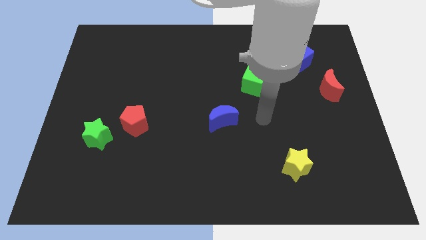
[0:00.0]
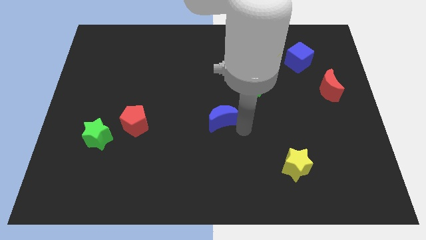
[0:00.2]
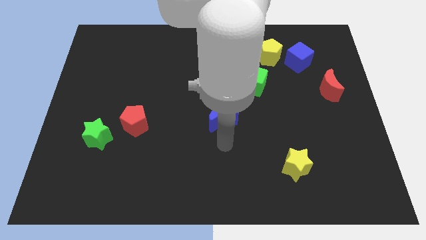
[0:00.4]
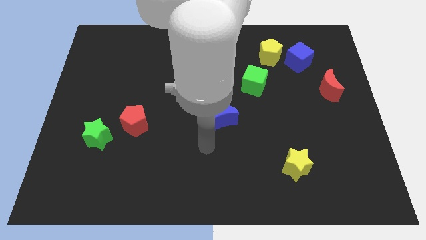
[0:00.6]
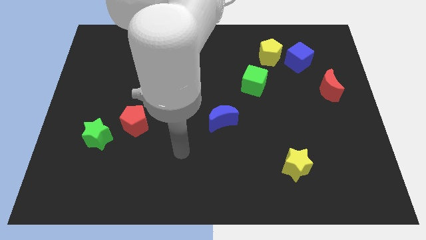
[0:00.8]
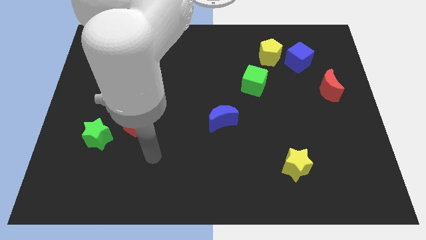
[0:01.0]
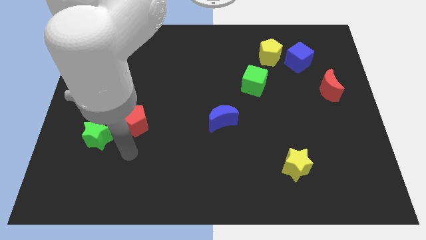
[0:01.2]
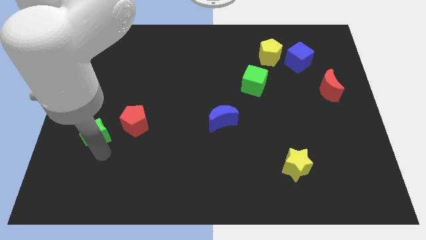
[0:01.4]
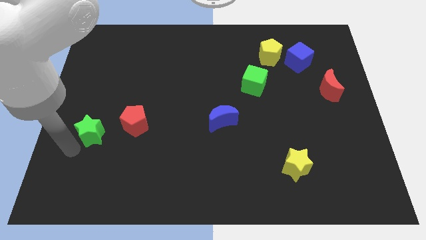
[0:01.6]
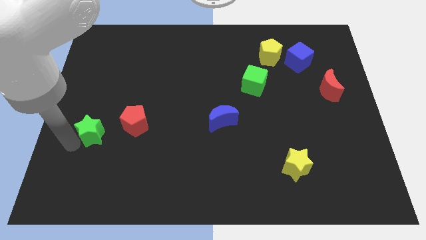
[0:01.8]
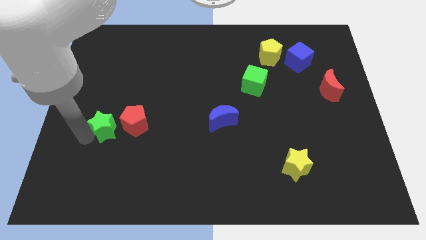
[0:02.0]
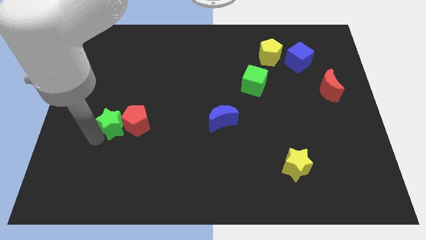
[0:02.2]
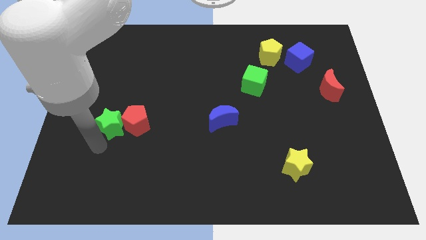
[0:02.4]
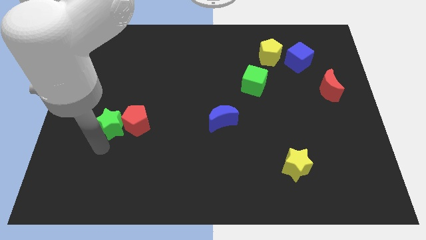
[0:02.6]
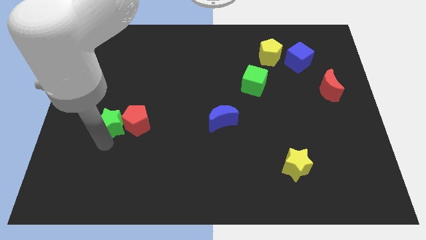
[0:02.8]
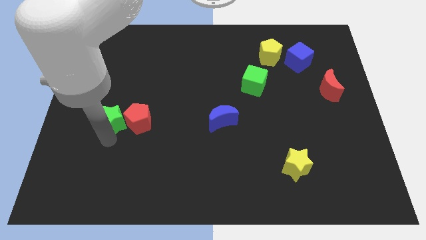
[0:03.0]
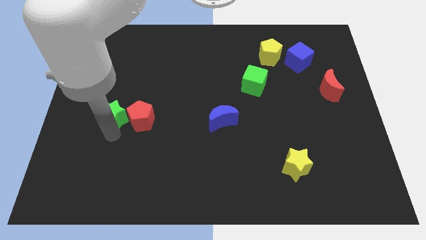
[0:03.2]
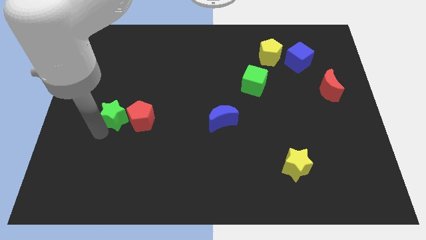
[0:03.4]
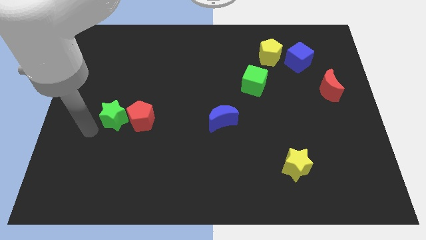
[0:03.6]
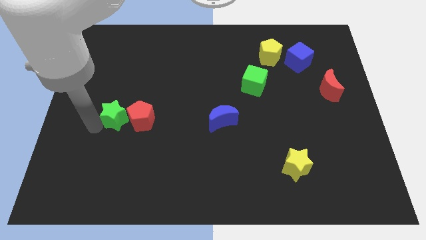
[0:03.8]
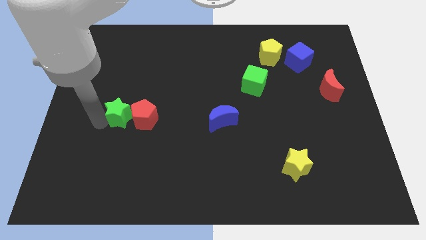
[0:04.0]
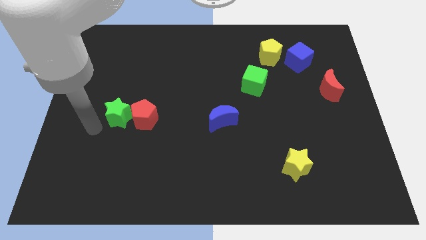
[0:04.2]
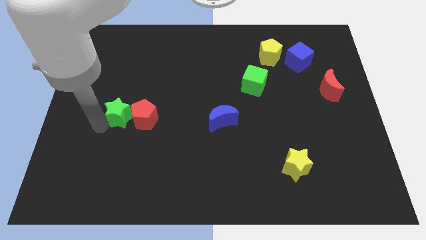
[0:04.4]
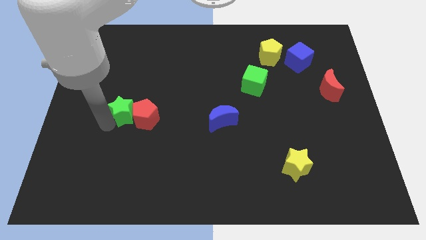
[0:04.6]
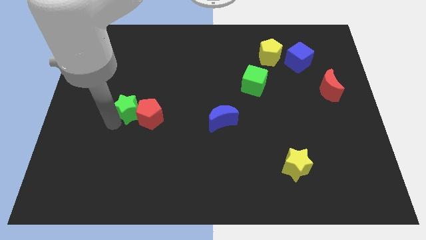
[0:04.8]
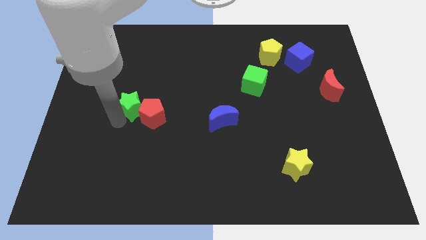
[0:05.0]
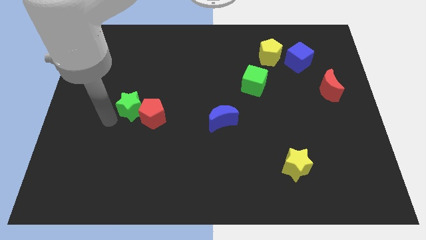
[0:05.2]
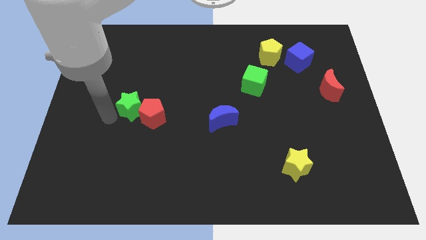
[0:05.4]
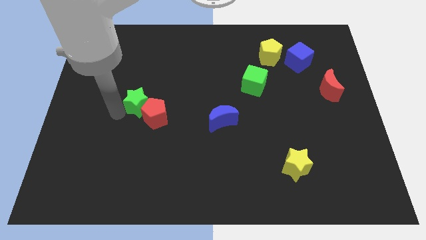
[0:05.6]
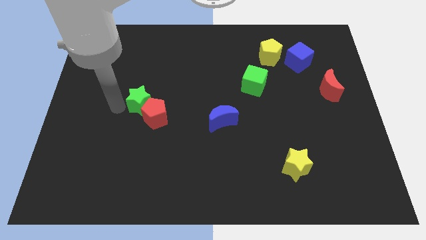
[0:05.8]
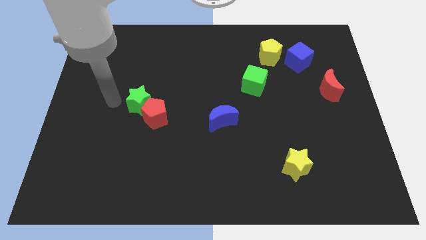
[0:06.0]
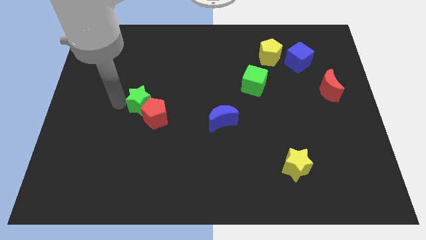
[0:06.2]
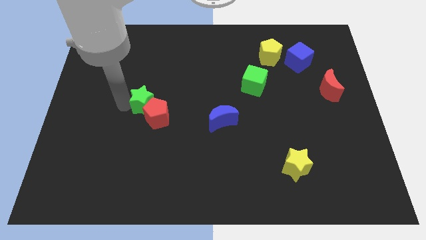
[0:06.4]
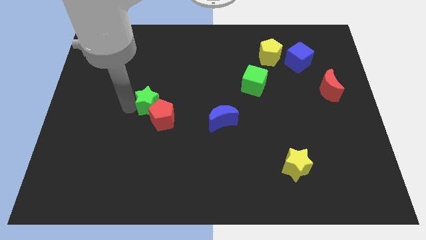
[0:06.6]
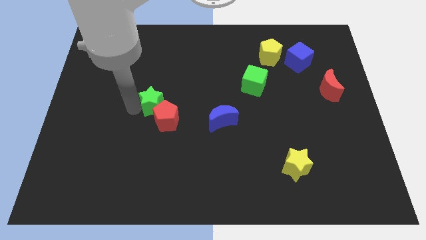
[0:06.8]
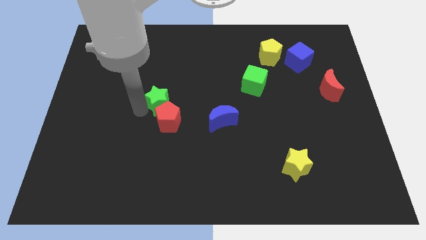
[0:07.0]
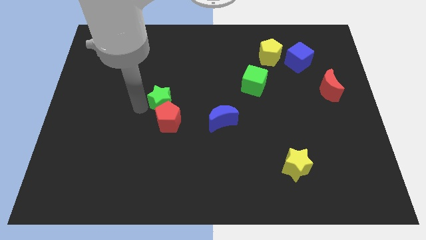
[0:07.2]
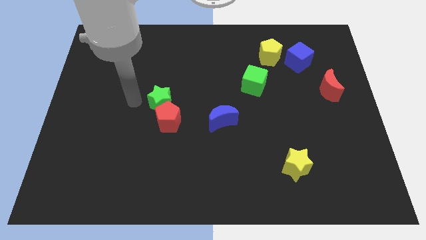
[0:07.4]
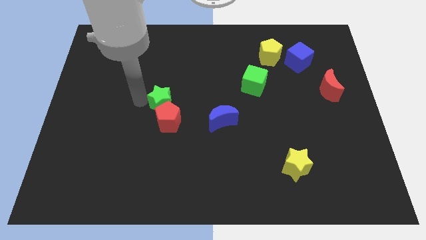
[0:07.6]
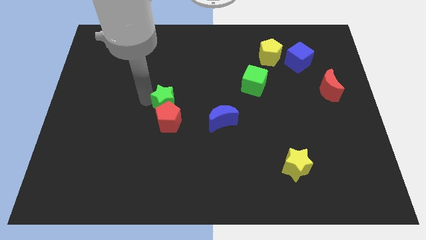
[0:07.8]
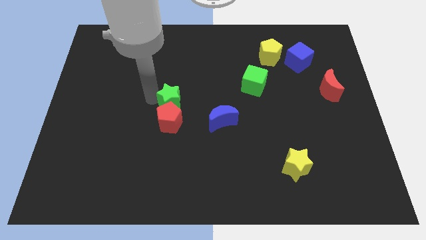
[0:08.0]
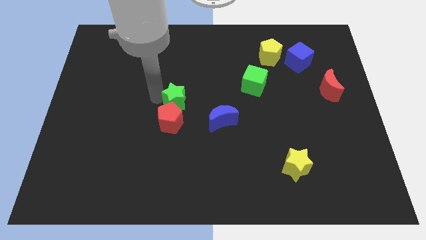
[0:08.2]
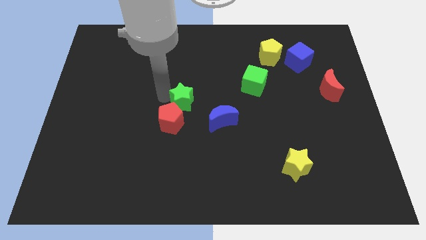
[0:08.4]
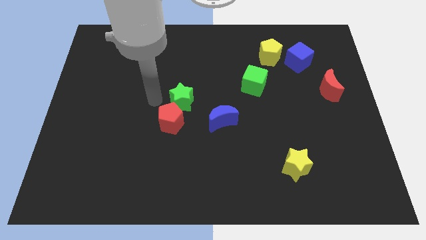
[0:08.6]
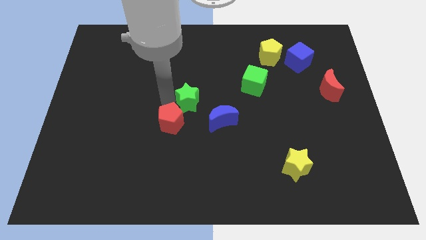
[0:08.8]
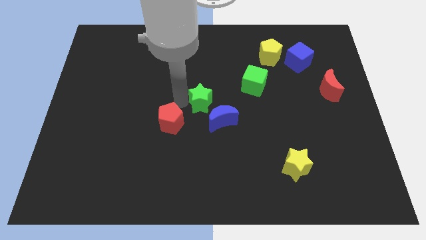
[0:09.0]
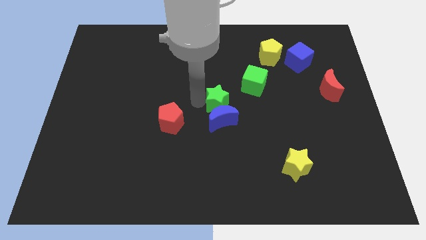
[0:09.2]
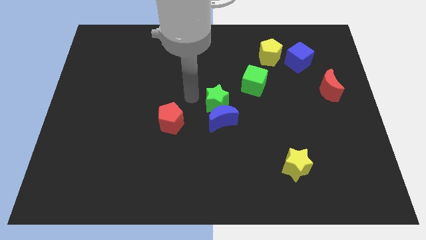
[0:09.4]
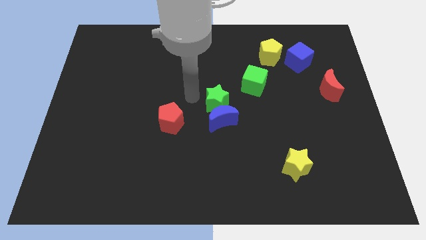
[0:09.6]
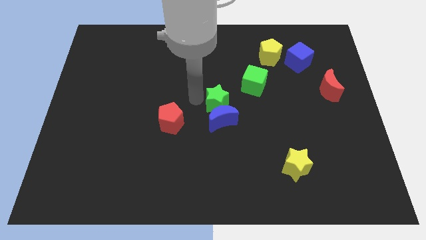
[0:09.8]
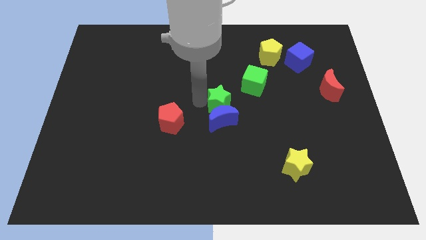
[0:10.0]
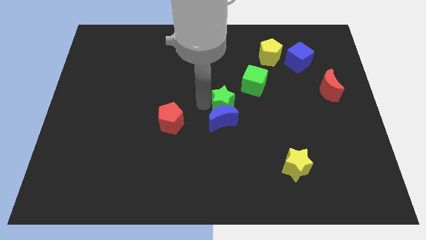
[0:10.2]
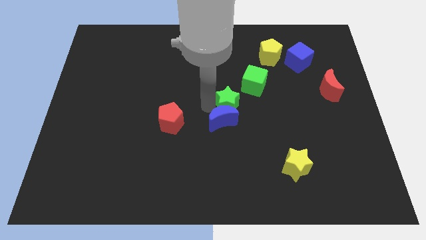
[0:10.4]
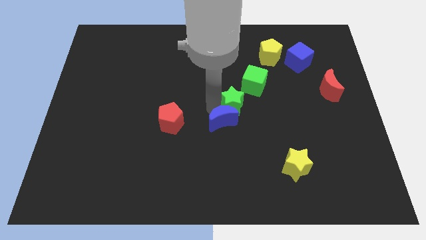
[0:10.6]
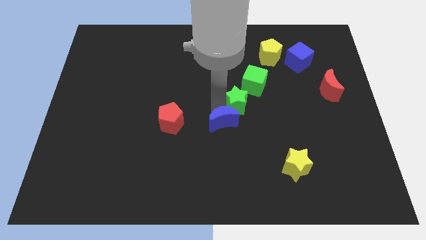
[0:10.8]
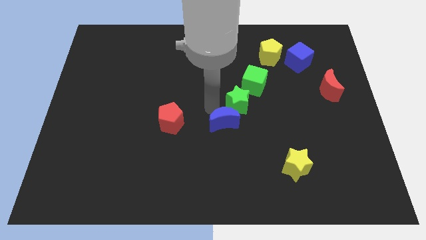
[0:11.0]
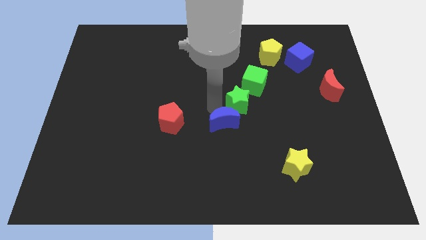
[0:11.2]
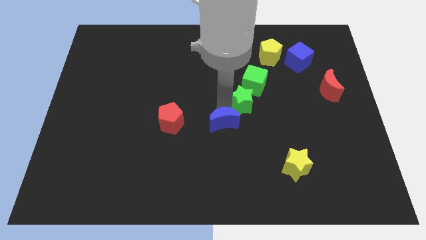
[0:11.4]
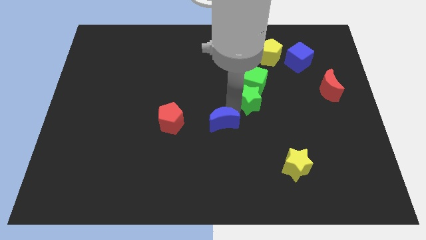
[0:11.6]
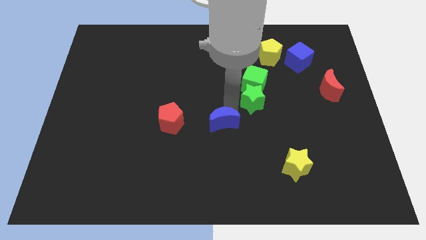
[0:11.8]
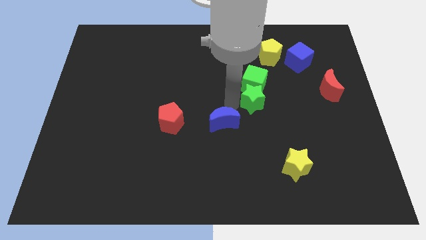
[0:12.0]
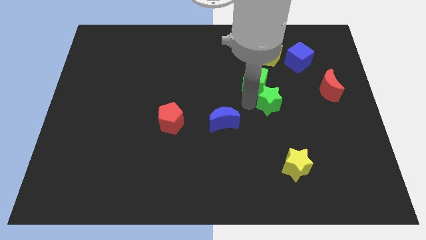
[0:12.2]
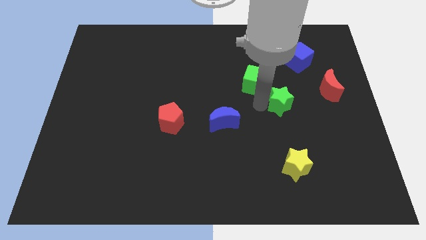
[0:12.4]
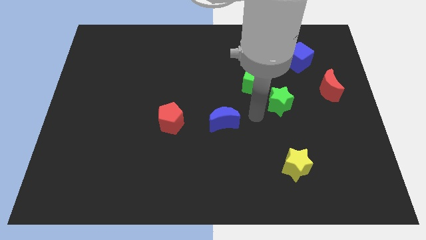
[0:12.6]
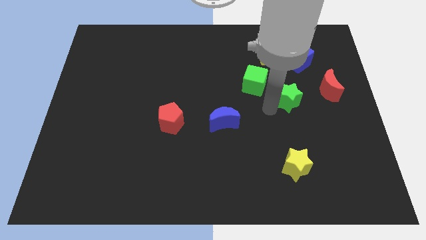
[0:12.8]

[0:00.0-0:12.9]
put the green star below the blue cube

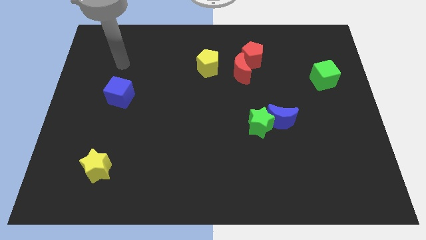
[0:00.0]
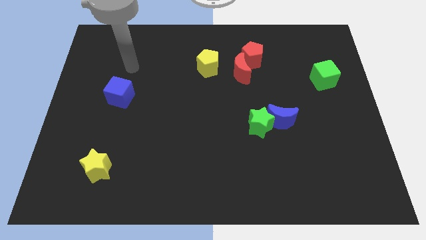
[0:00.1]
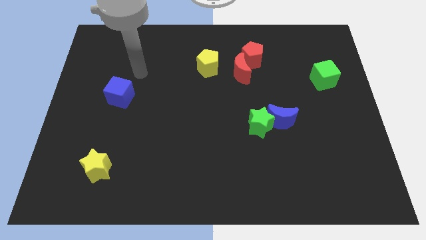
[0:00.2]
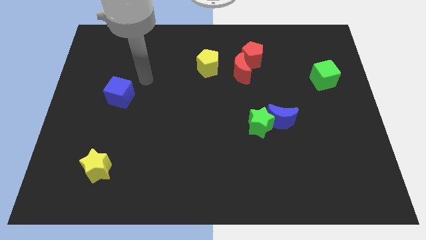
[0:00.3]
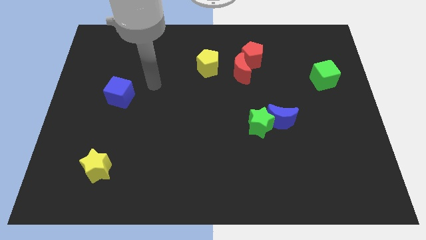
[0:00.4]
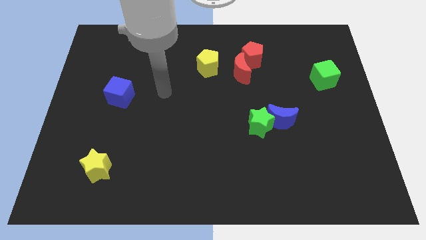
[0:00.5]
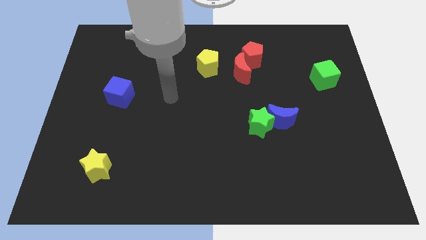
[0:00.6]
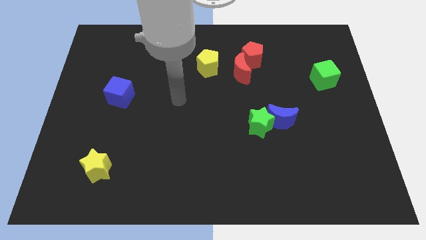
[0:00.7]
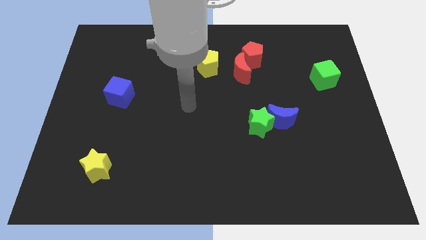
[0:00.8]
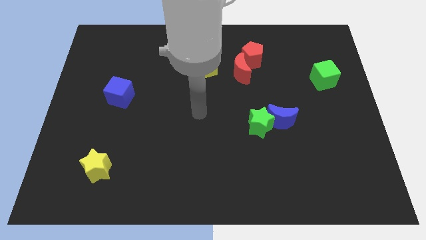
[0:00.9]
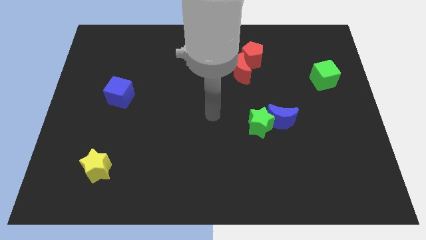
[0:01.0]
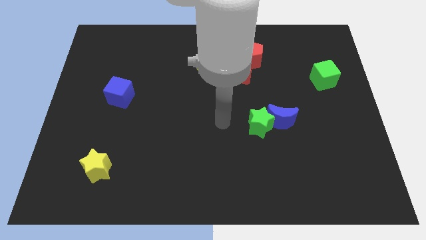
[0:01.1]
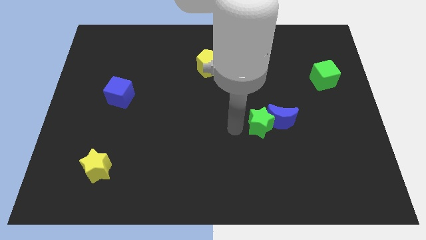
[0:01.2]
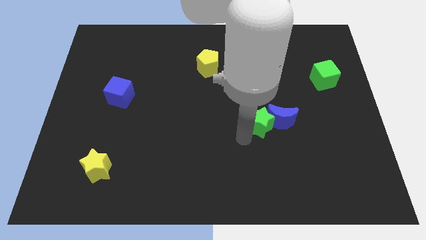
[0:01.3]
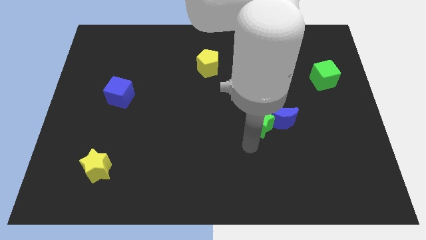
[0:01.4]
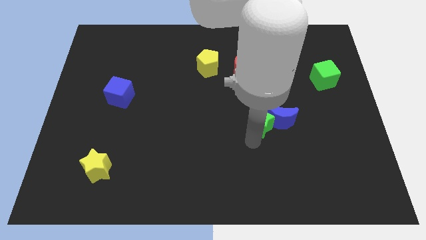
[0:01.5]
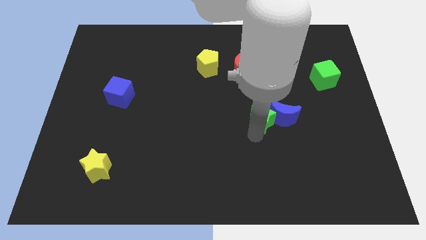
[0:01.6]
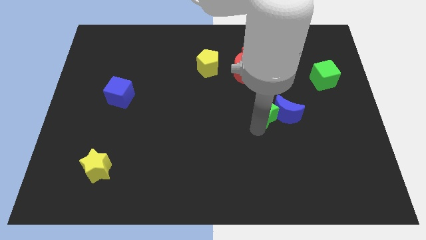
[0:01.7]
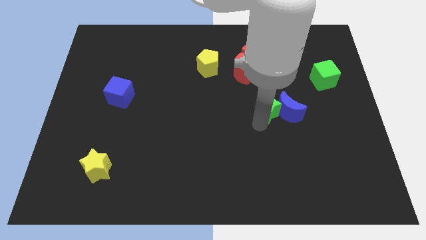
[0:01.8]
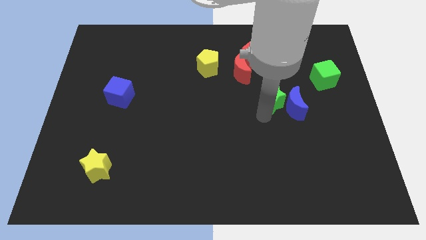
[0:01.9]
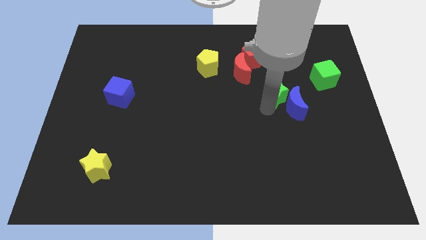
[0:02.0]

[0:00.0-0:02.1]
put the green star above the blue moon
